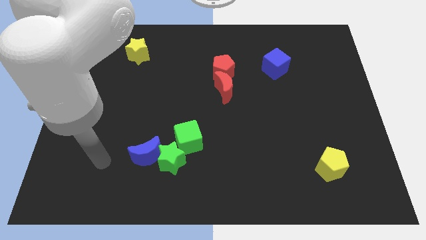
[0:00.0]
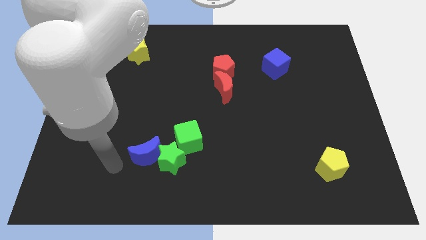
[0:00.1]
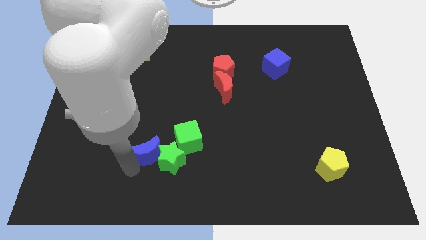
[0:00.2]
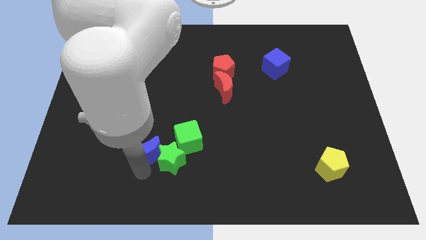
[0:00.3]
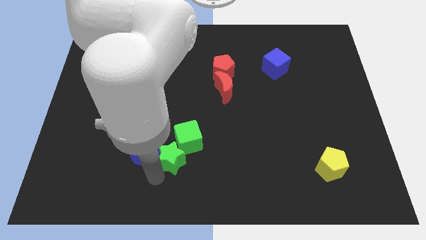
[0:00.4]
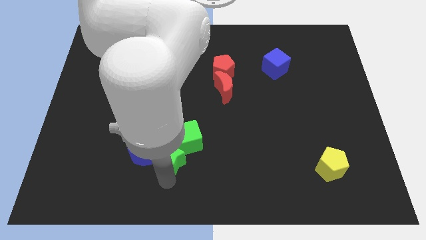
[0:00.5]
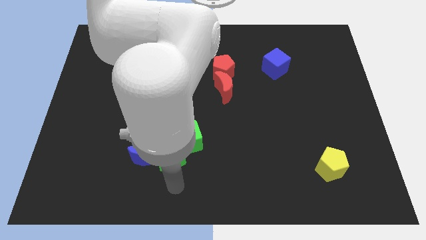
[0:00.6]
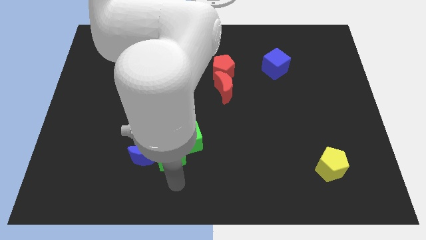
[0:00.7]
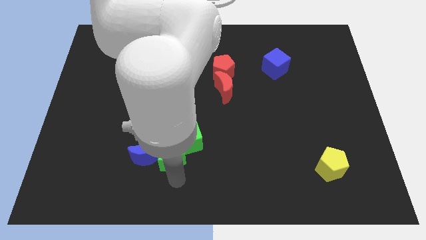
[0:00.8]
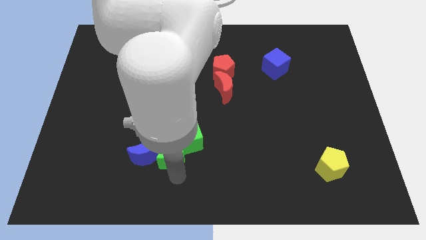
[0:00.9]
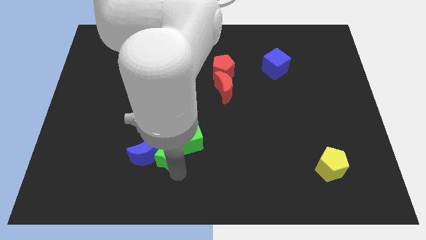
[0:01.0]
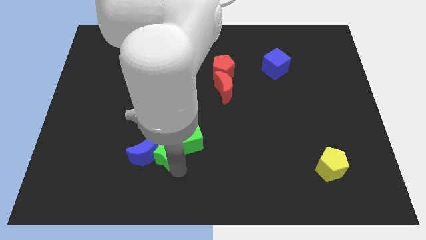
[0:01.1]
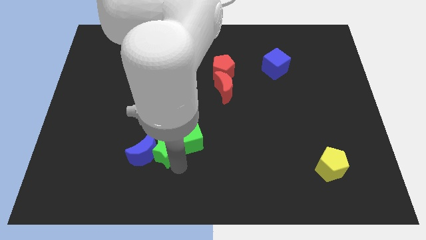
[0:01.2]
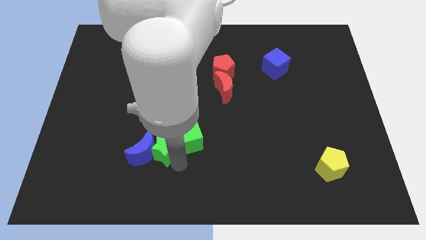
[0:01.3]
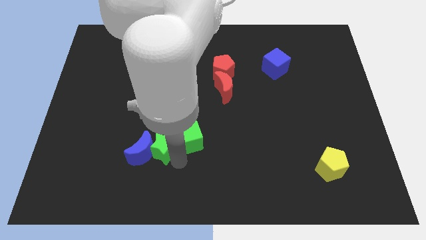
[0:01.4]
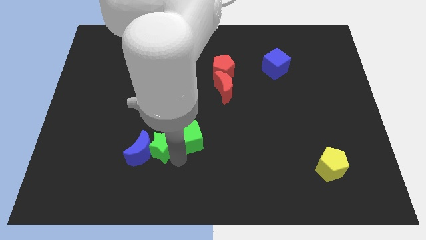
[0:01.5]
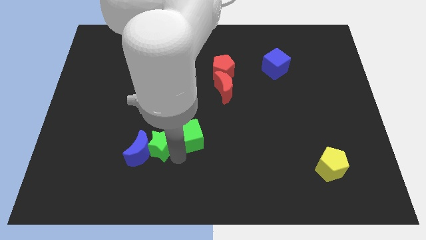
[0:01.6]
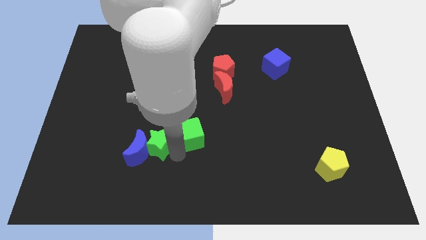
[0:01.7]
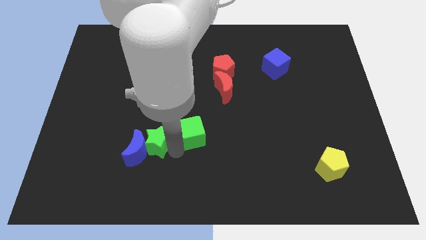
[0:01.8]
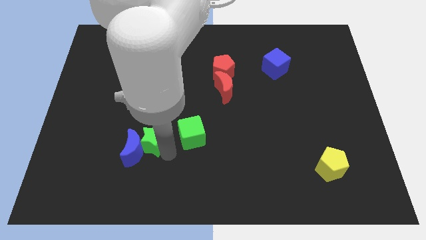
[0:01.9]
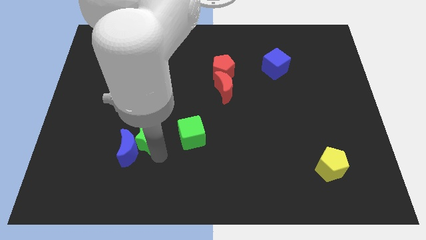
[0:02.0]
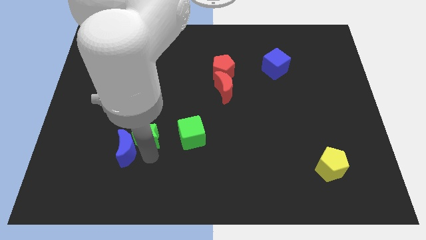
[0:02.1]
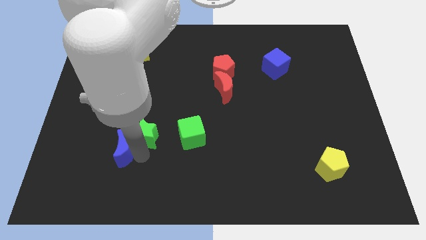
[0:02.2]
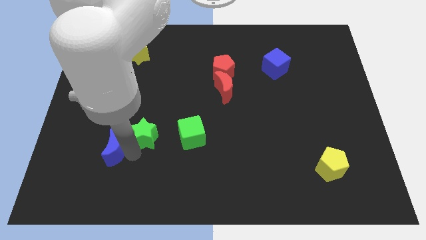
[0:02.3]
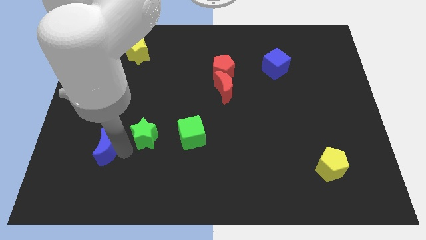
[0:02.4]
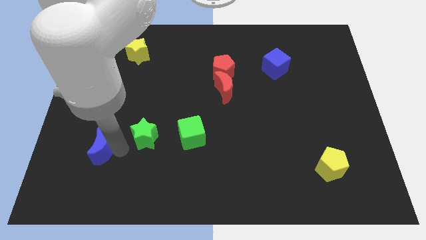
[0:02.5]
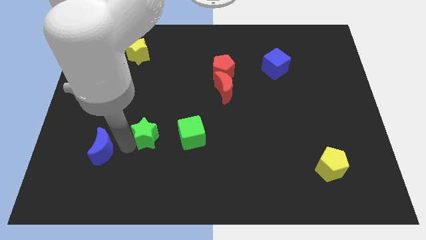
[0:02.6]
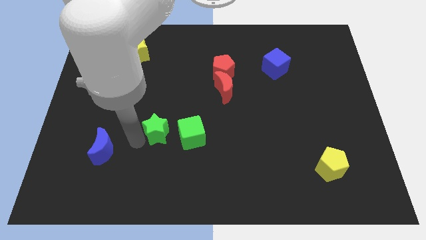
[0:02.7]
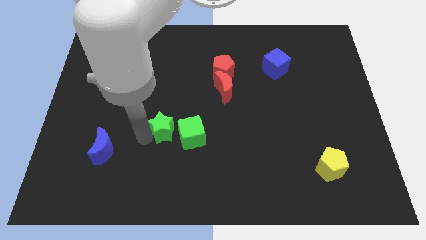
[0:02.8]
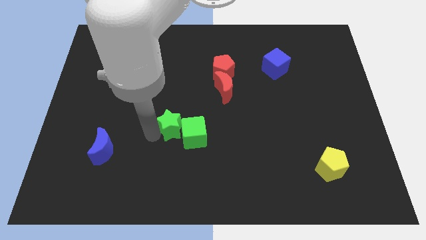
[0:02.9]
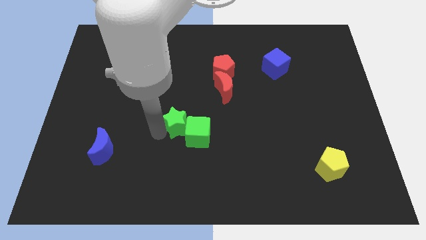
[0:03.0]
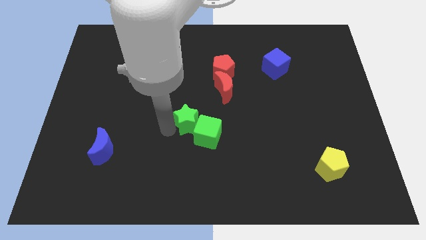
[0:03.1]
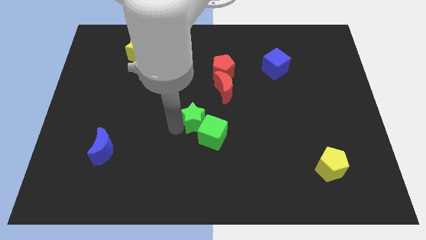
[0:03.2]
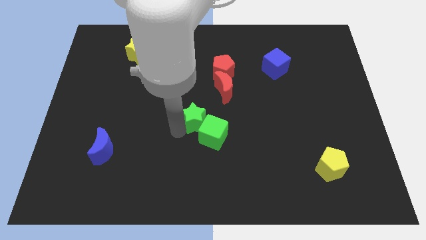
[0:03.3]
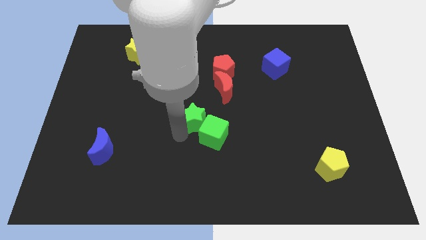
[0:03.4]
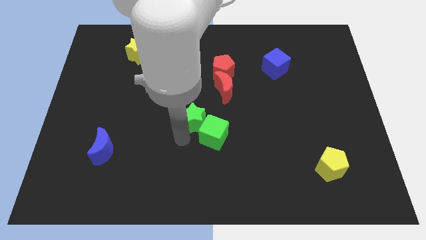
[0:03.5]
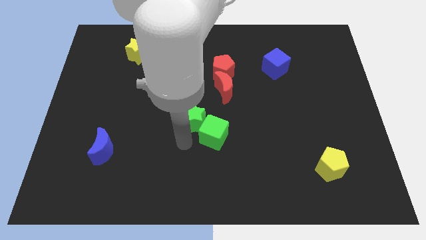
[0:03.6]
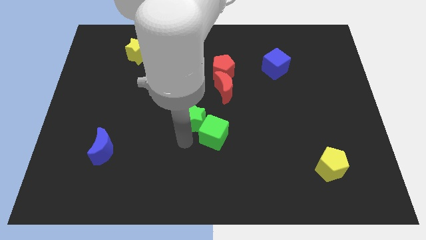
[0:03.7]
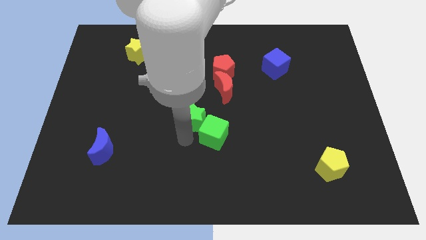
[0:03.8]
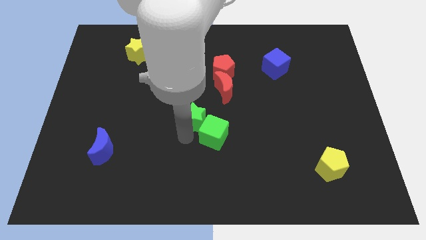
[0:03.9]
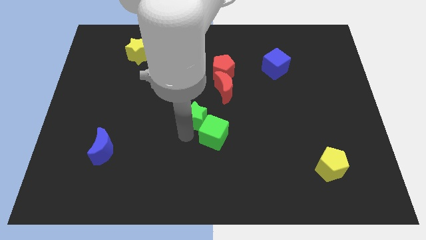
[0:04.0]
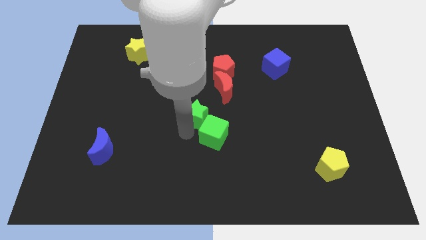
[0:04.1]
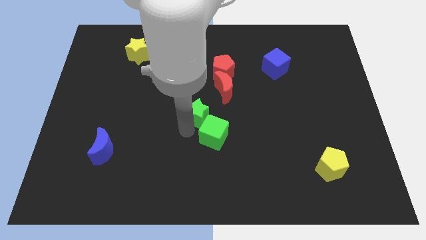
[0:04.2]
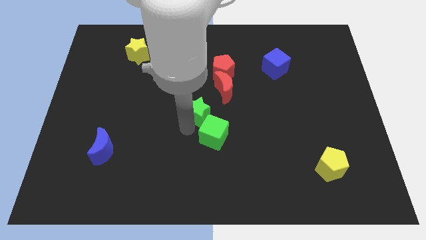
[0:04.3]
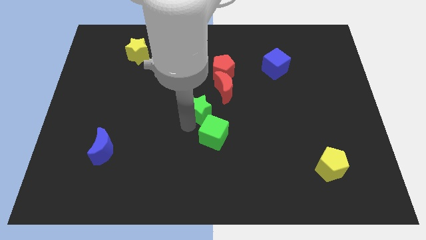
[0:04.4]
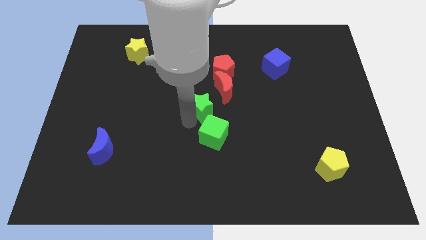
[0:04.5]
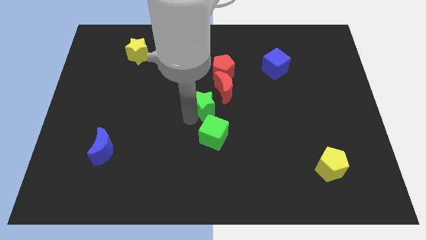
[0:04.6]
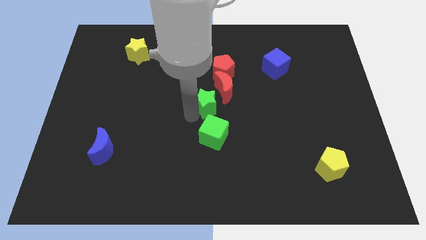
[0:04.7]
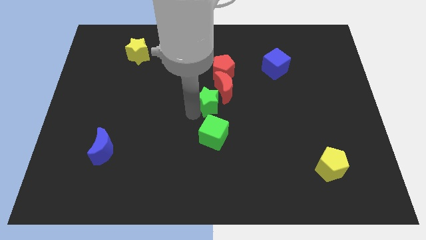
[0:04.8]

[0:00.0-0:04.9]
move the green star close to the red moon

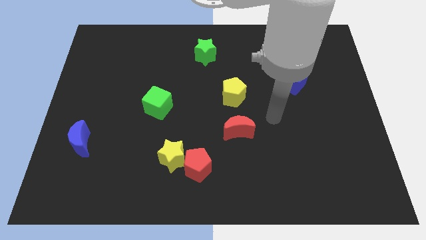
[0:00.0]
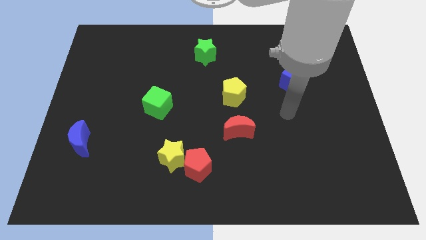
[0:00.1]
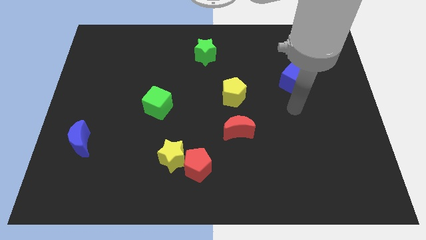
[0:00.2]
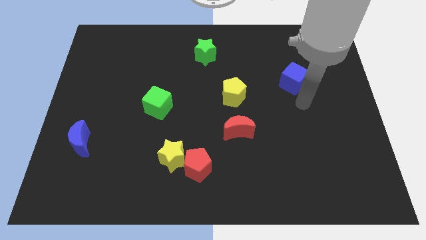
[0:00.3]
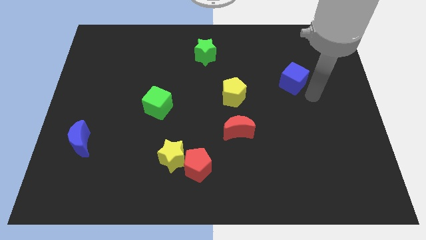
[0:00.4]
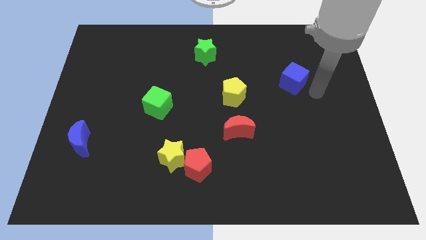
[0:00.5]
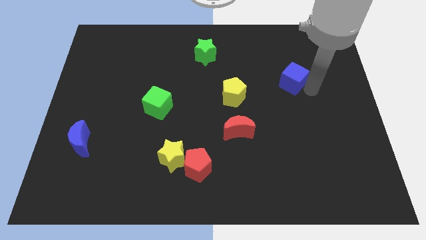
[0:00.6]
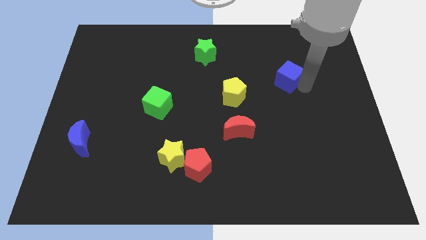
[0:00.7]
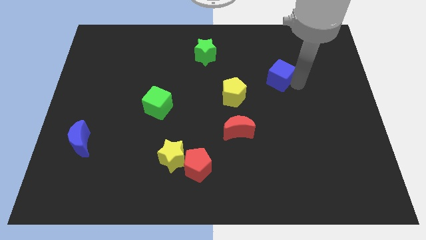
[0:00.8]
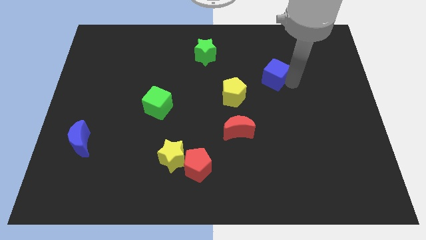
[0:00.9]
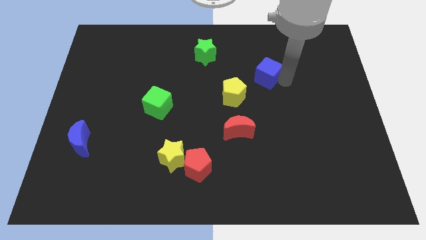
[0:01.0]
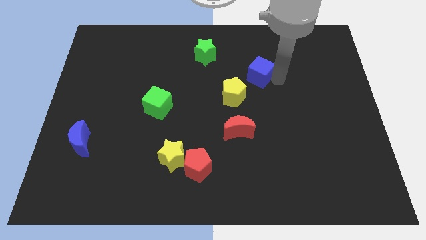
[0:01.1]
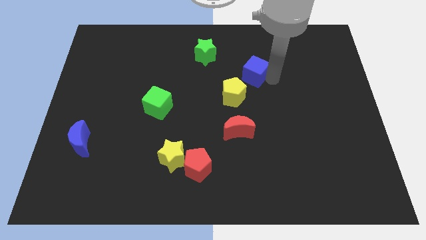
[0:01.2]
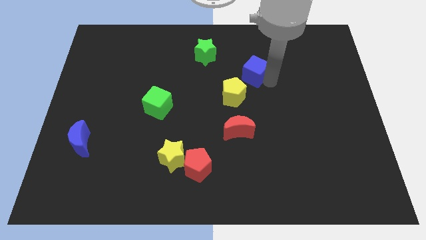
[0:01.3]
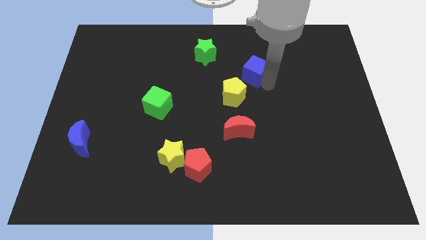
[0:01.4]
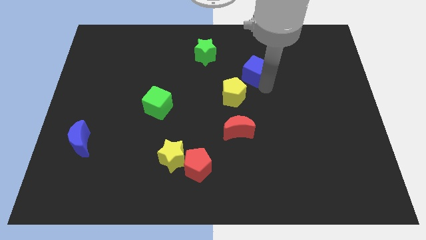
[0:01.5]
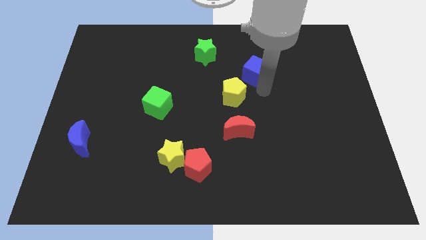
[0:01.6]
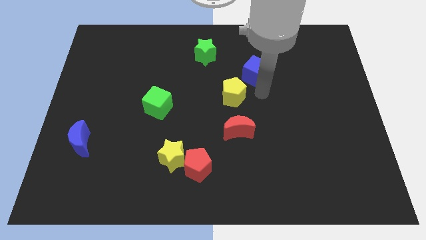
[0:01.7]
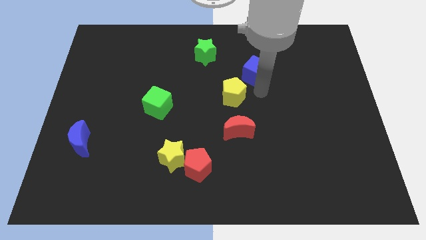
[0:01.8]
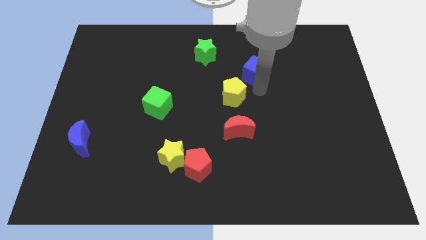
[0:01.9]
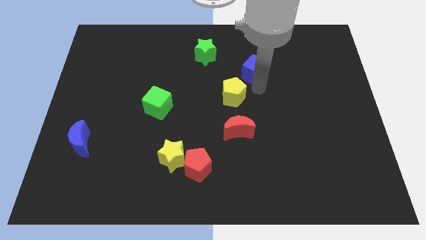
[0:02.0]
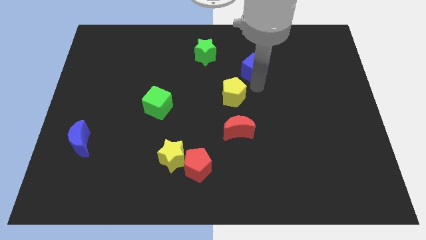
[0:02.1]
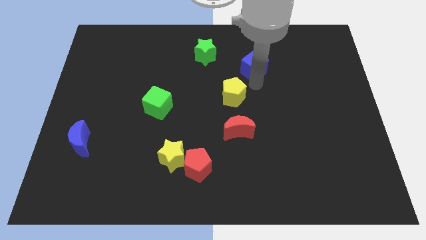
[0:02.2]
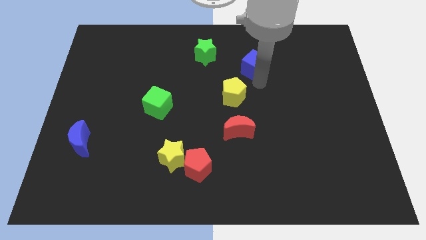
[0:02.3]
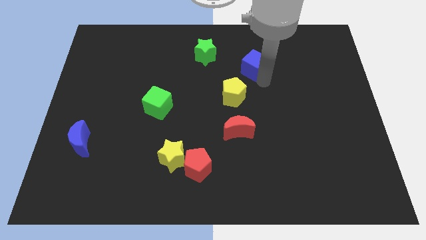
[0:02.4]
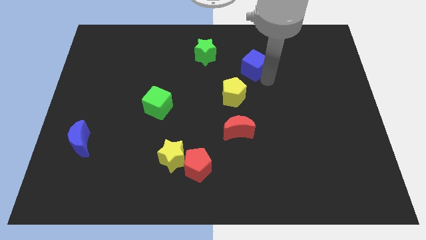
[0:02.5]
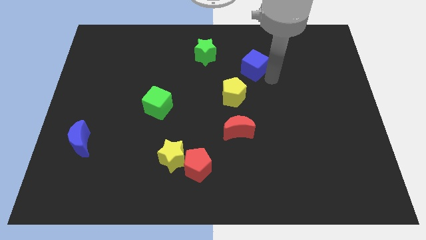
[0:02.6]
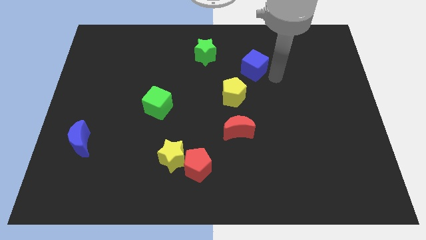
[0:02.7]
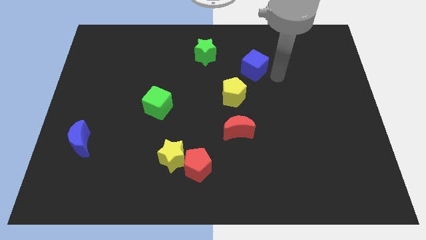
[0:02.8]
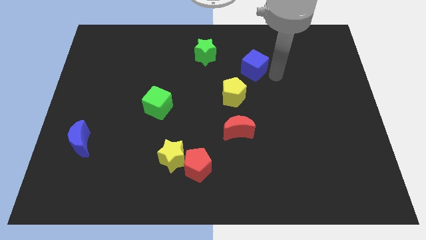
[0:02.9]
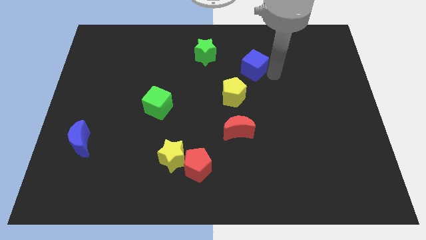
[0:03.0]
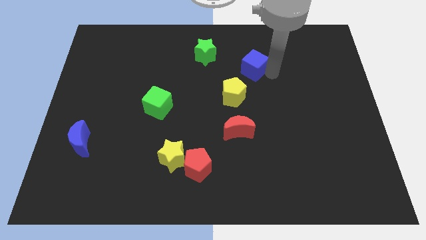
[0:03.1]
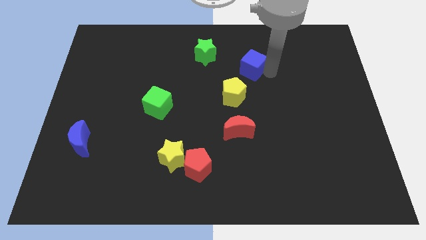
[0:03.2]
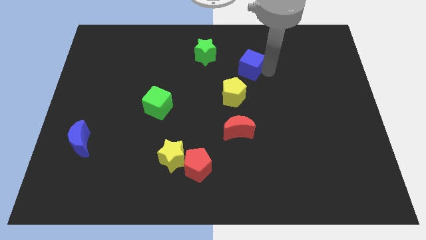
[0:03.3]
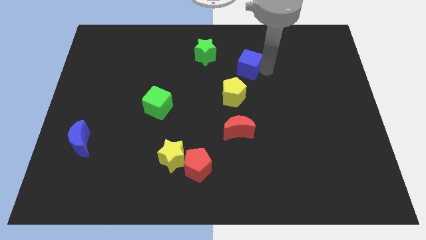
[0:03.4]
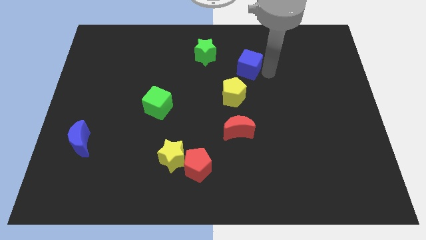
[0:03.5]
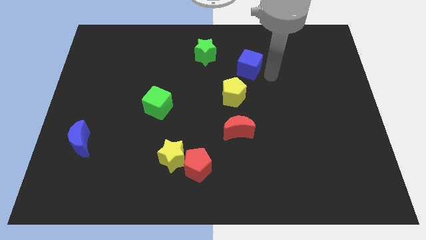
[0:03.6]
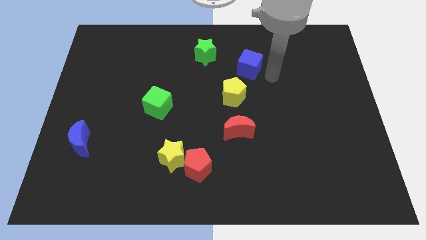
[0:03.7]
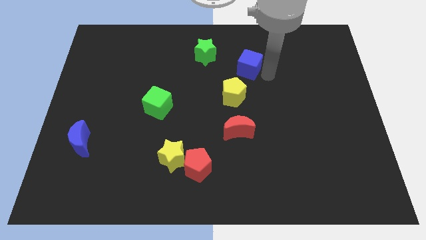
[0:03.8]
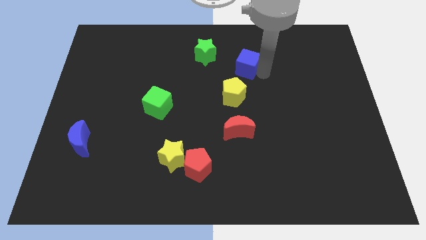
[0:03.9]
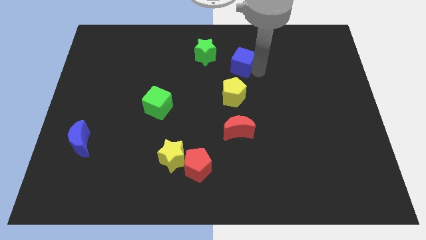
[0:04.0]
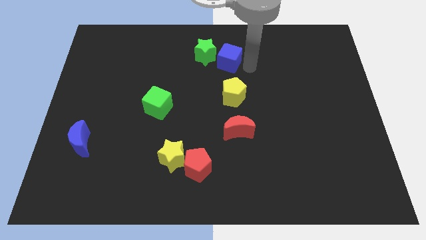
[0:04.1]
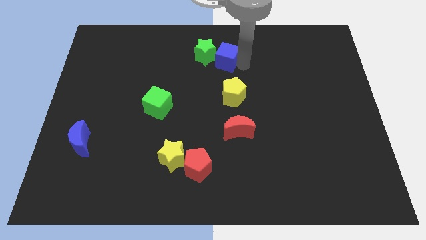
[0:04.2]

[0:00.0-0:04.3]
move the blue cube to the green star
